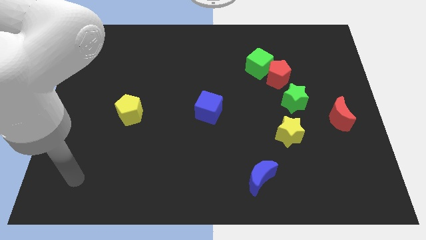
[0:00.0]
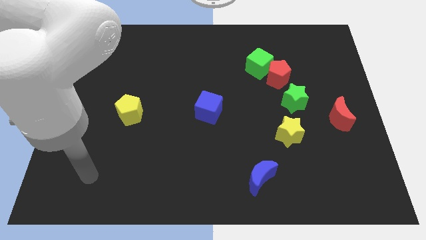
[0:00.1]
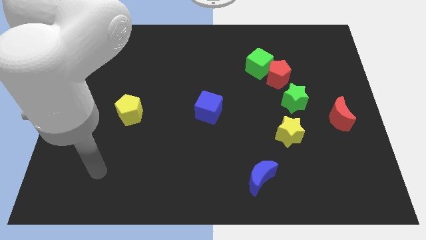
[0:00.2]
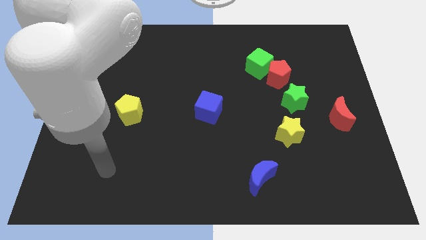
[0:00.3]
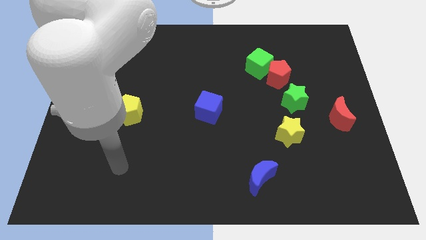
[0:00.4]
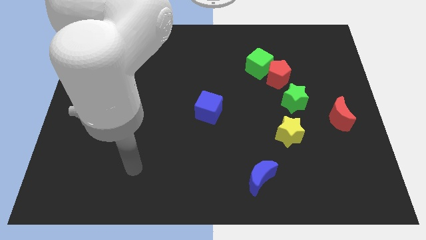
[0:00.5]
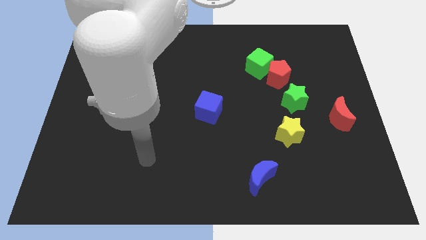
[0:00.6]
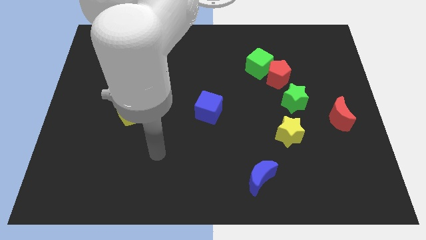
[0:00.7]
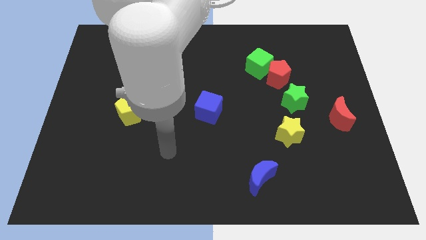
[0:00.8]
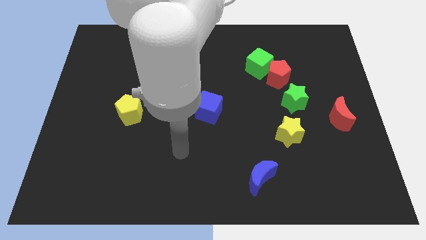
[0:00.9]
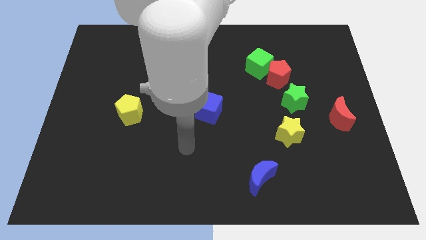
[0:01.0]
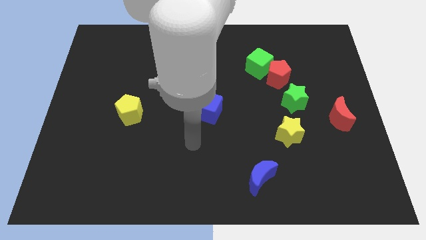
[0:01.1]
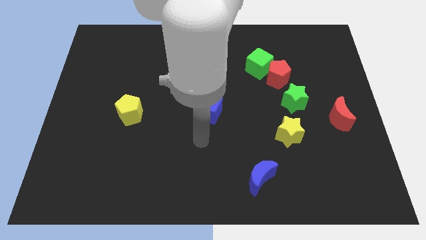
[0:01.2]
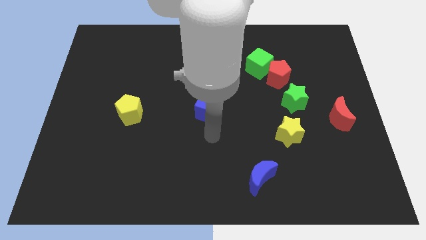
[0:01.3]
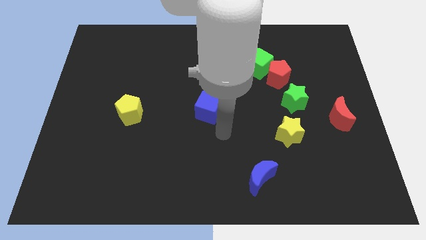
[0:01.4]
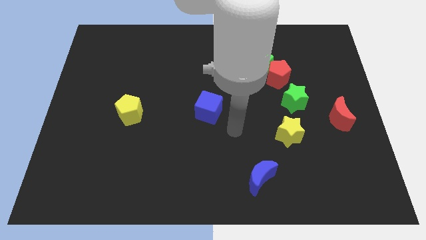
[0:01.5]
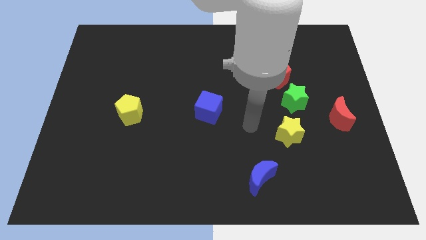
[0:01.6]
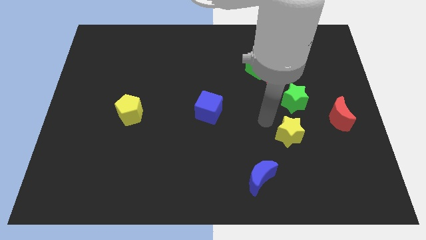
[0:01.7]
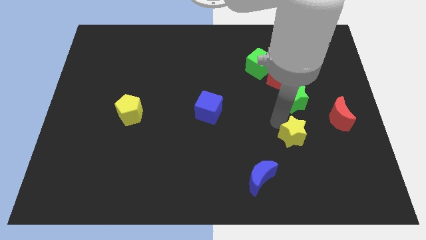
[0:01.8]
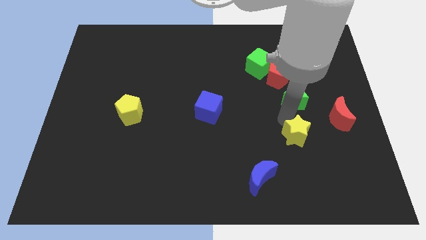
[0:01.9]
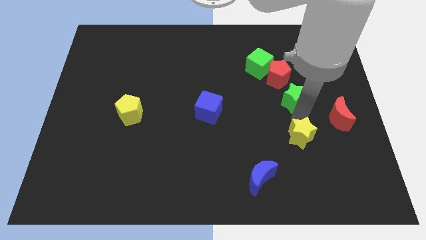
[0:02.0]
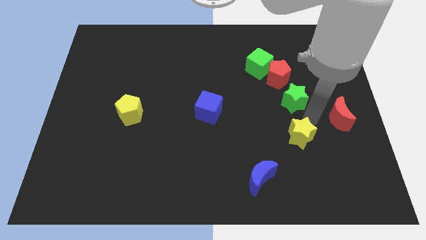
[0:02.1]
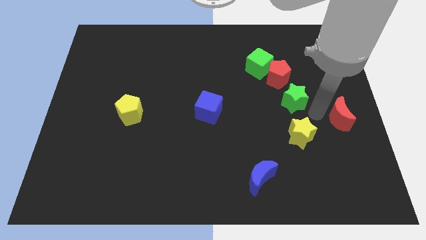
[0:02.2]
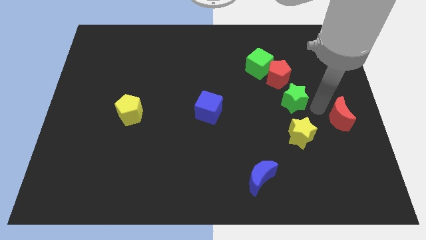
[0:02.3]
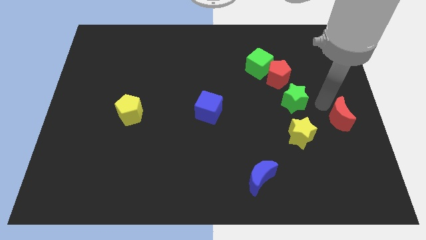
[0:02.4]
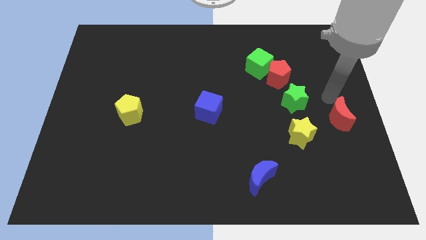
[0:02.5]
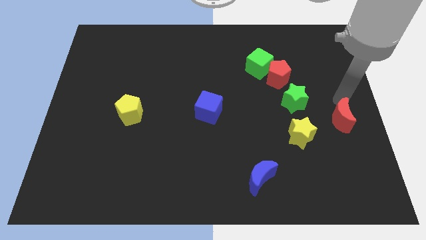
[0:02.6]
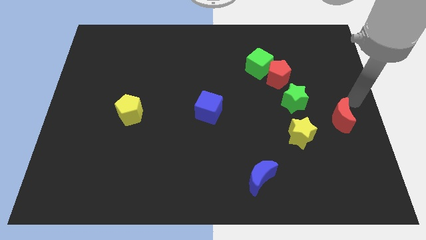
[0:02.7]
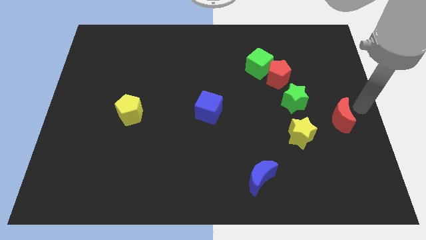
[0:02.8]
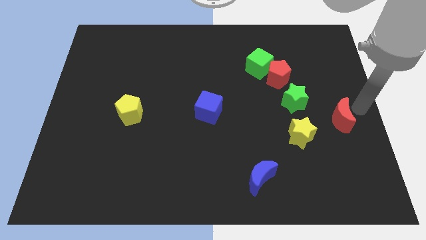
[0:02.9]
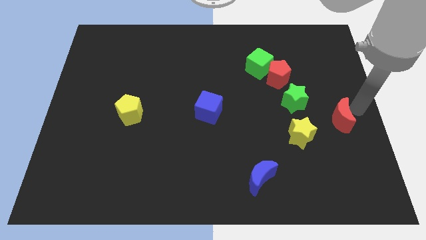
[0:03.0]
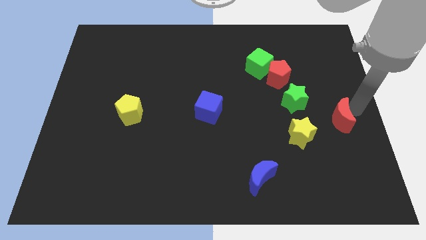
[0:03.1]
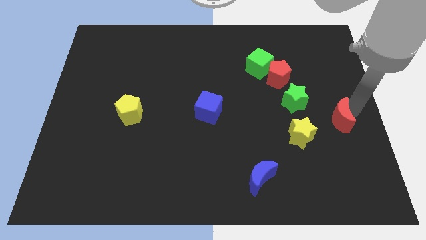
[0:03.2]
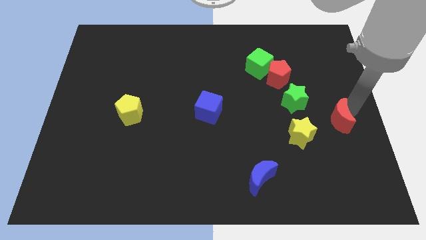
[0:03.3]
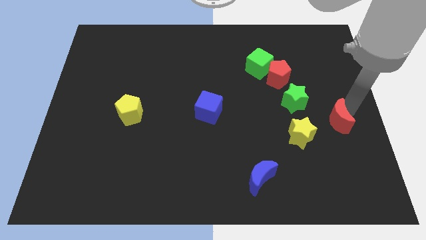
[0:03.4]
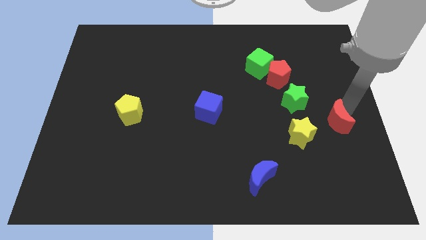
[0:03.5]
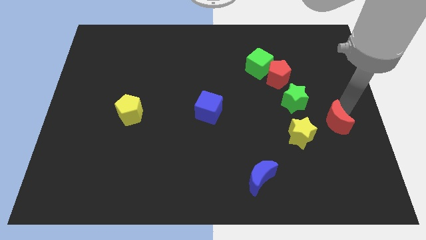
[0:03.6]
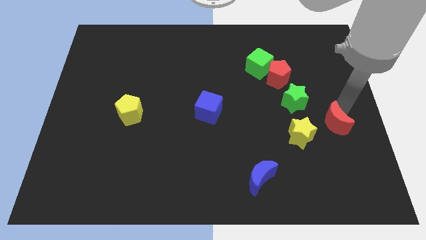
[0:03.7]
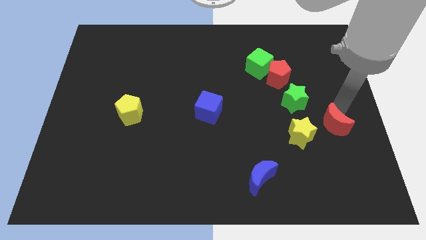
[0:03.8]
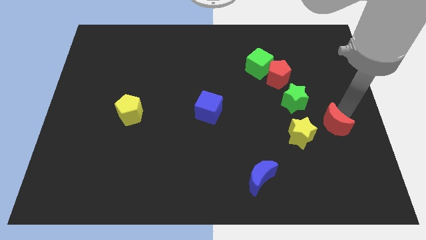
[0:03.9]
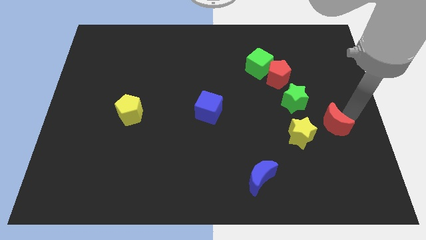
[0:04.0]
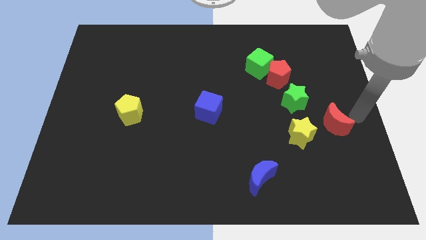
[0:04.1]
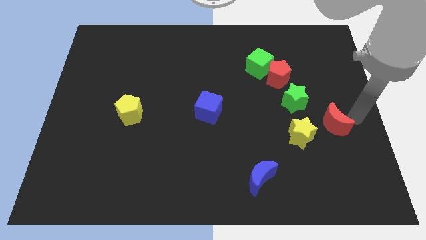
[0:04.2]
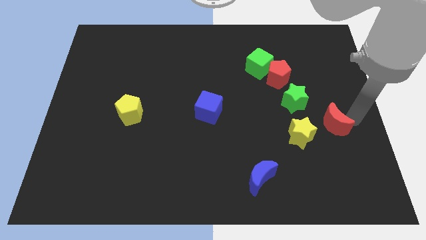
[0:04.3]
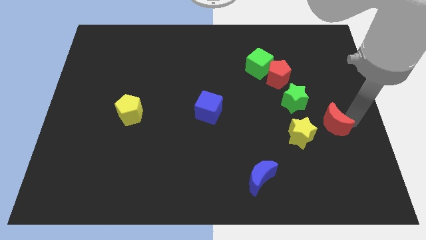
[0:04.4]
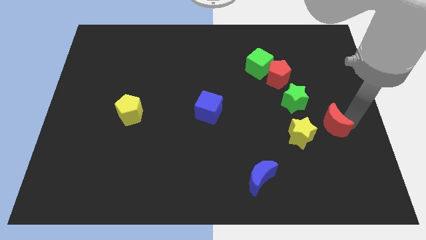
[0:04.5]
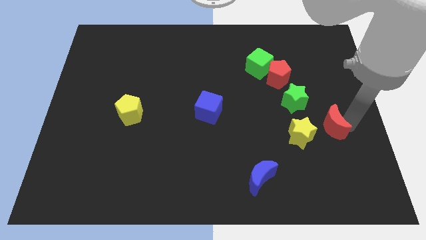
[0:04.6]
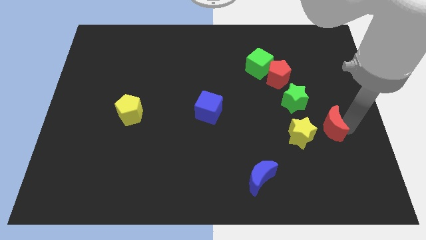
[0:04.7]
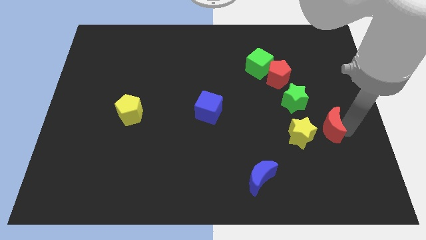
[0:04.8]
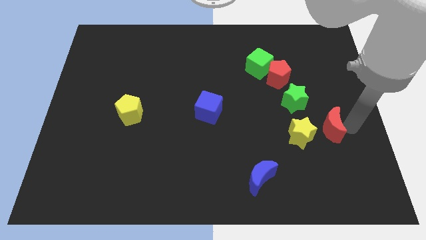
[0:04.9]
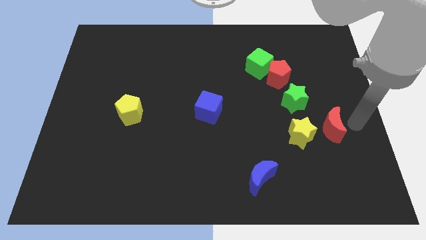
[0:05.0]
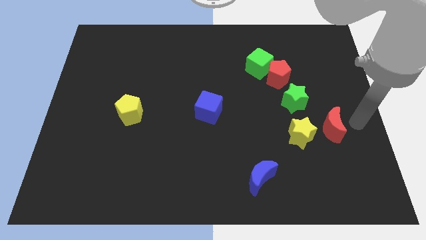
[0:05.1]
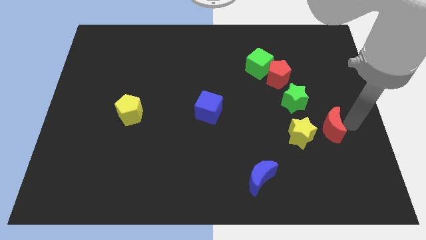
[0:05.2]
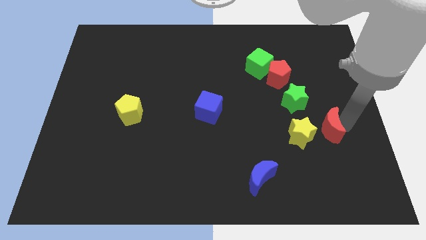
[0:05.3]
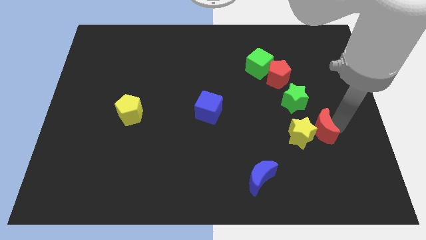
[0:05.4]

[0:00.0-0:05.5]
move the red moon close to the yellow star

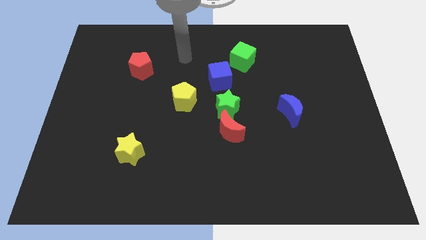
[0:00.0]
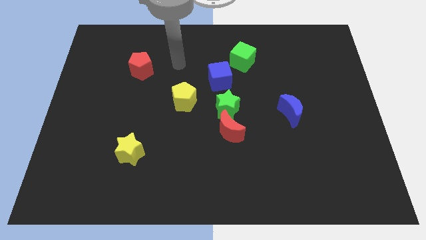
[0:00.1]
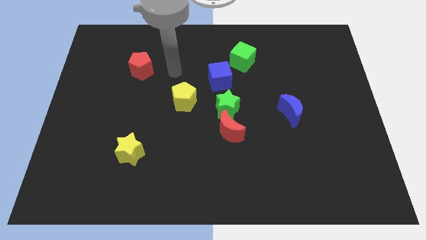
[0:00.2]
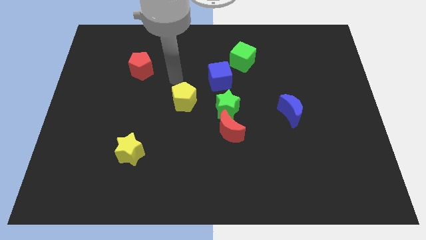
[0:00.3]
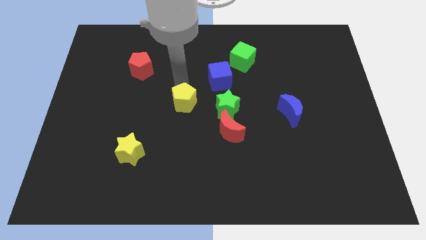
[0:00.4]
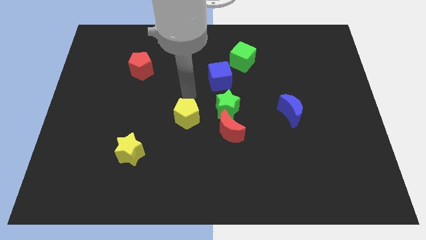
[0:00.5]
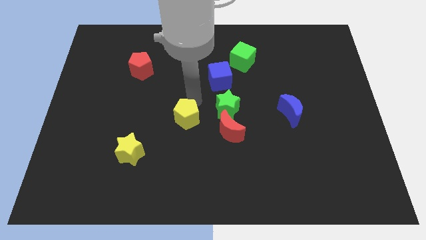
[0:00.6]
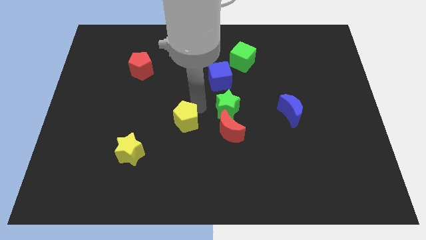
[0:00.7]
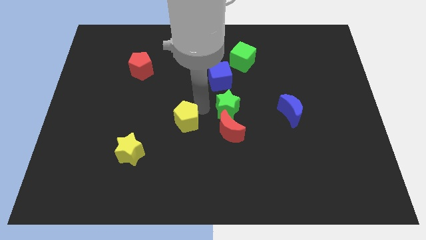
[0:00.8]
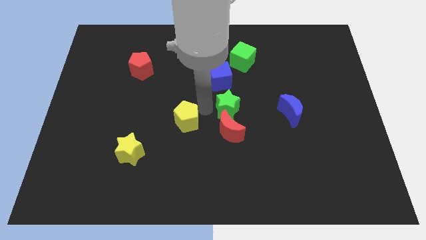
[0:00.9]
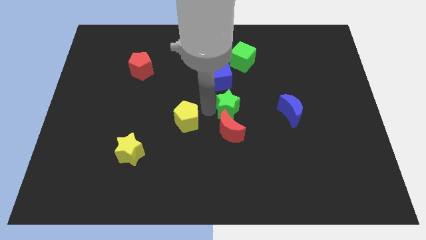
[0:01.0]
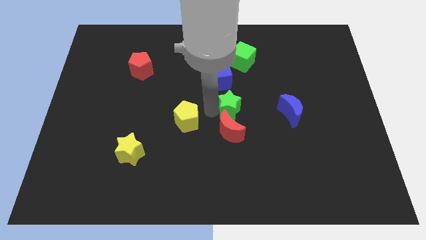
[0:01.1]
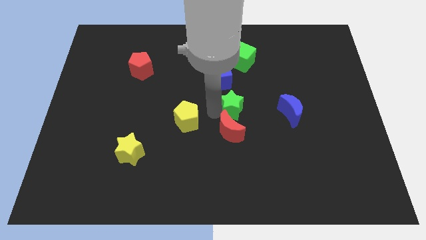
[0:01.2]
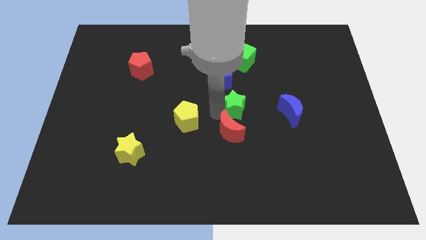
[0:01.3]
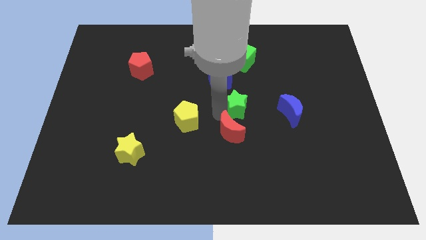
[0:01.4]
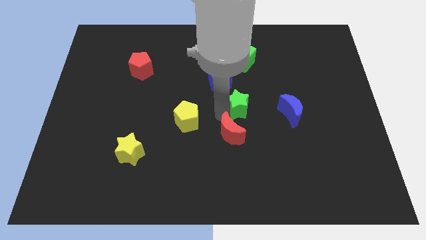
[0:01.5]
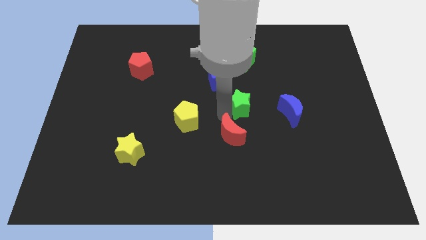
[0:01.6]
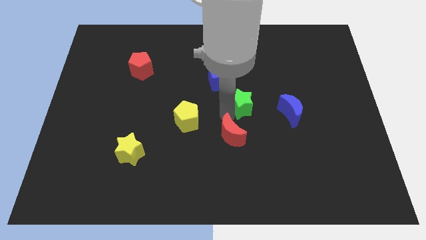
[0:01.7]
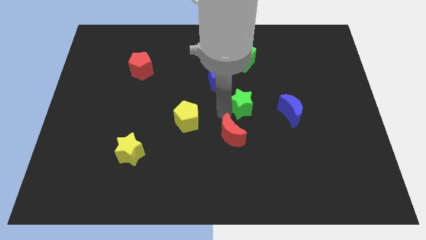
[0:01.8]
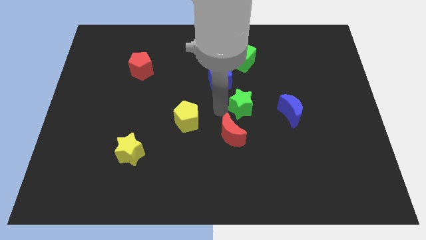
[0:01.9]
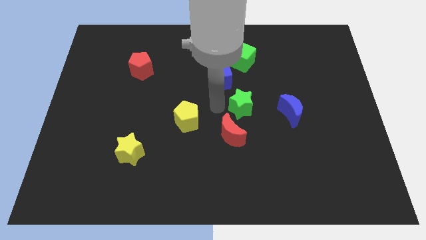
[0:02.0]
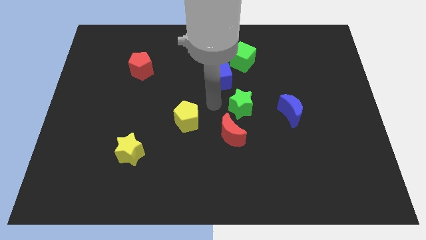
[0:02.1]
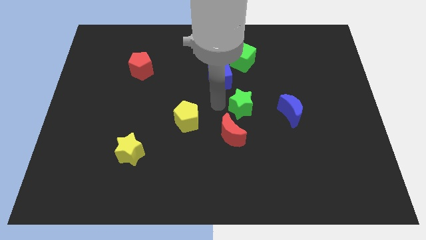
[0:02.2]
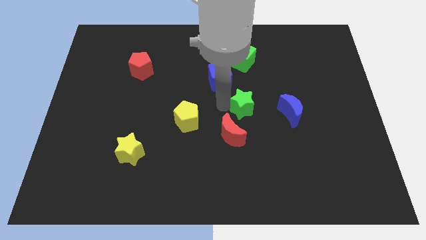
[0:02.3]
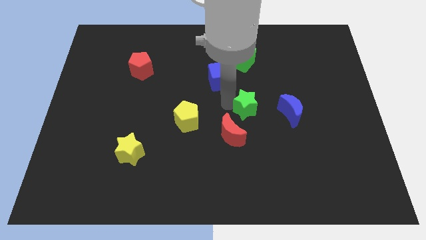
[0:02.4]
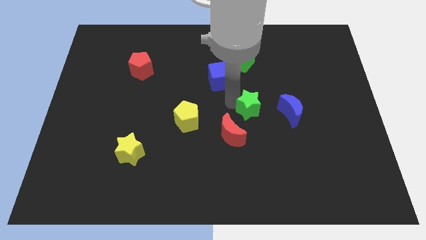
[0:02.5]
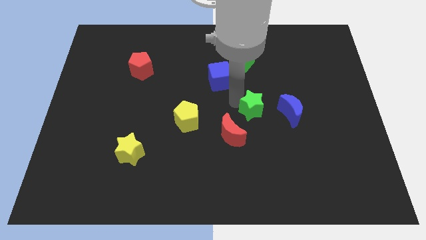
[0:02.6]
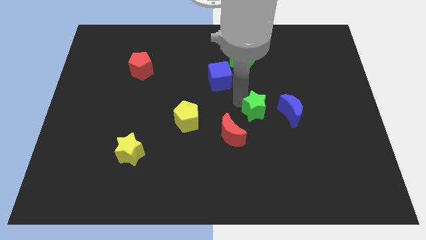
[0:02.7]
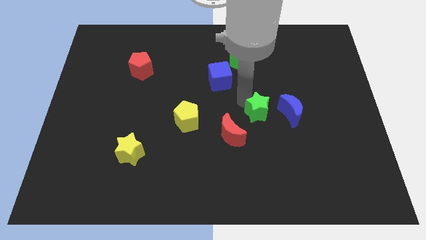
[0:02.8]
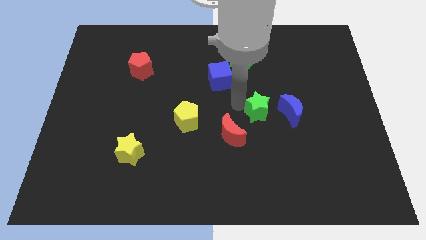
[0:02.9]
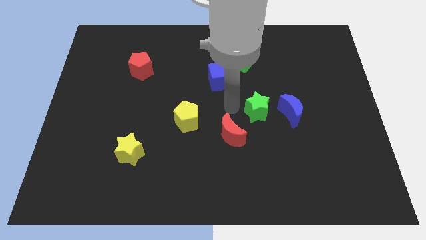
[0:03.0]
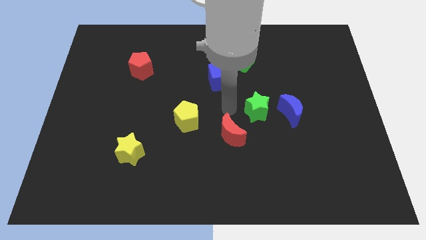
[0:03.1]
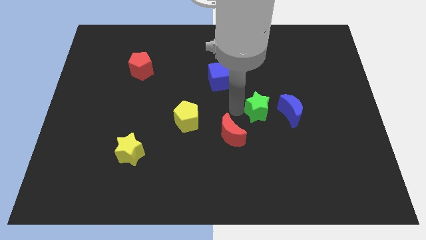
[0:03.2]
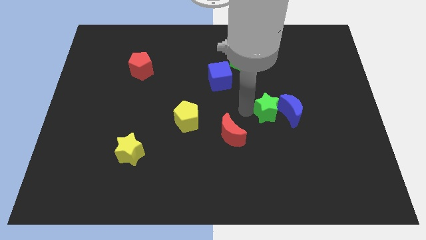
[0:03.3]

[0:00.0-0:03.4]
slide the green star towards the blue moon
